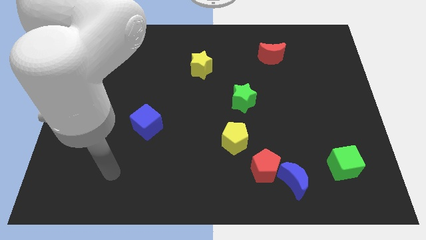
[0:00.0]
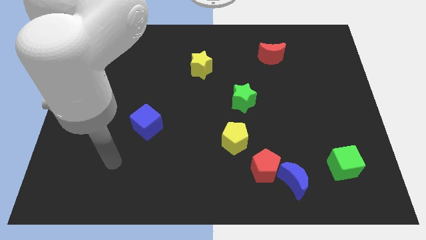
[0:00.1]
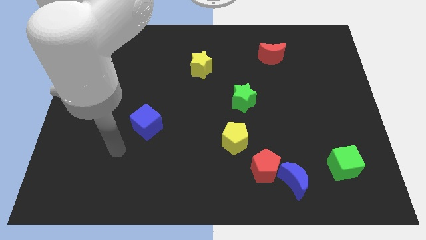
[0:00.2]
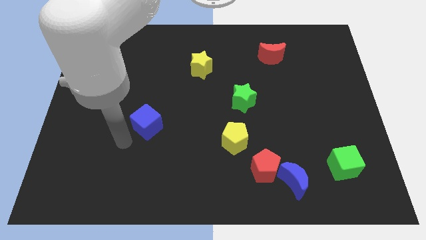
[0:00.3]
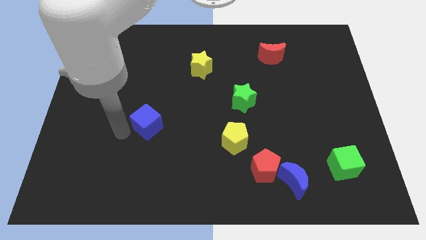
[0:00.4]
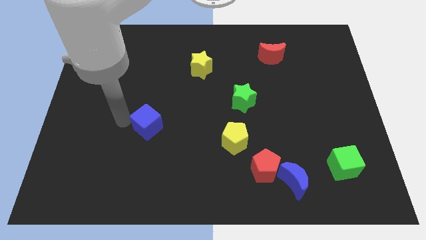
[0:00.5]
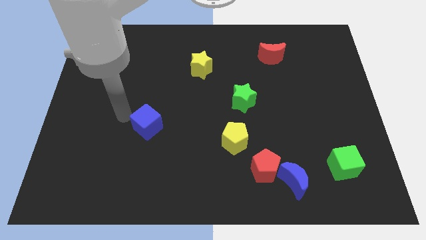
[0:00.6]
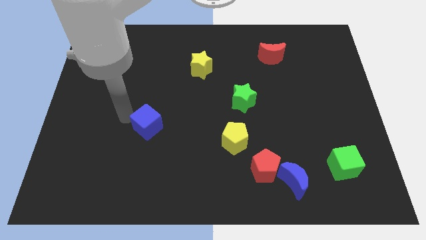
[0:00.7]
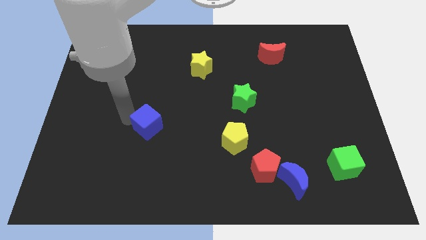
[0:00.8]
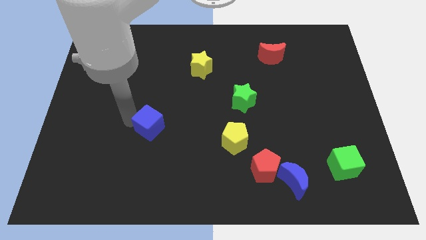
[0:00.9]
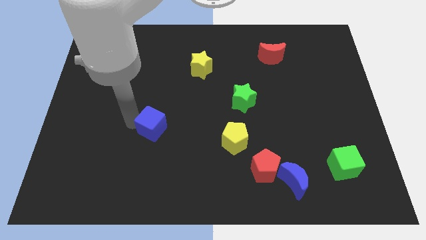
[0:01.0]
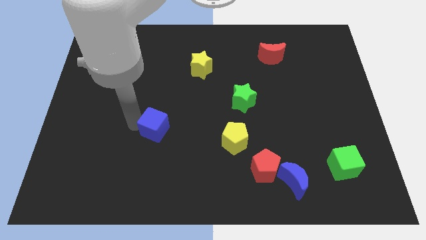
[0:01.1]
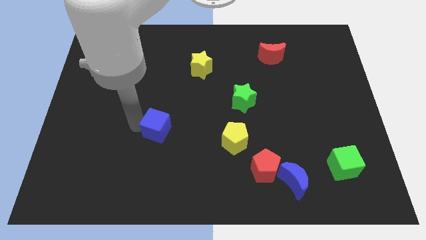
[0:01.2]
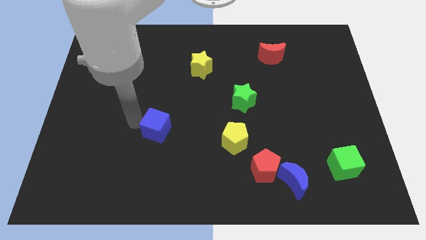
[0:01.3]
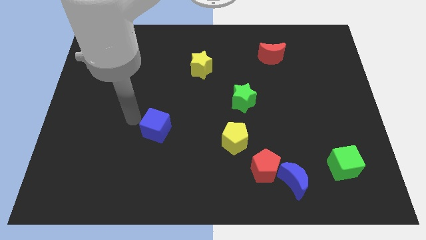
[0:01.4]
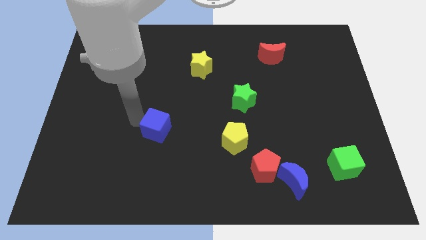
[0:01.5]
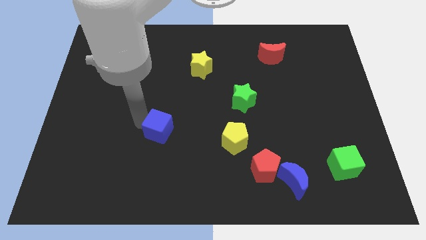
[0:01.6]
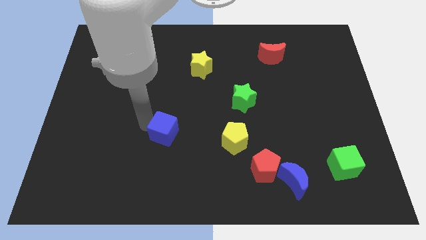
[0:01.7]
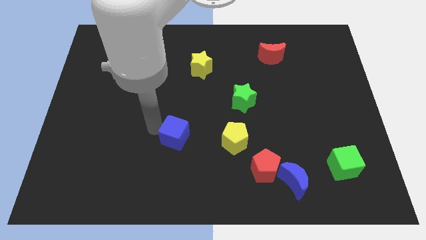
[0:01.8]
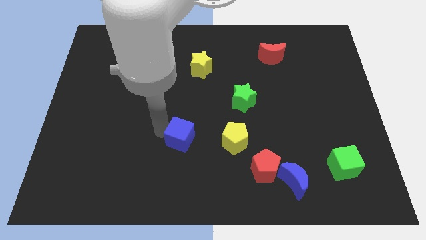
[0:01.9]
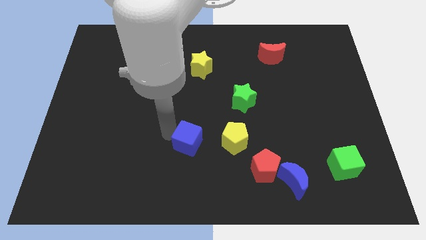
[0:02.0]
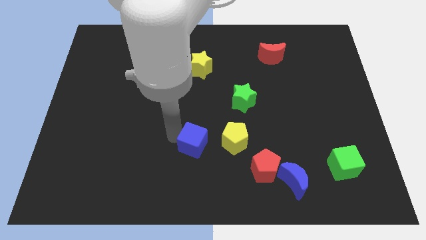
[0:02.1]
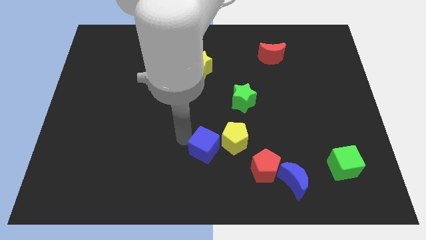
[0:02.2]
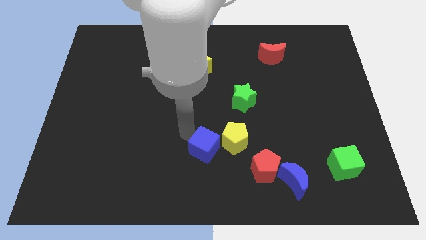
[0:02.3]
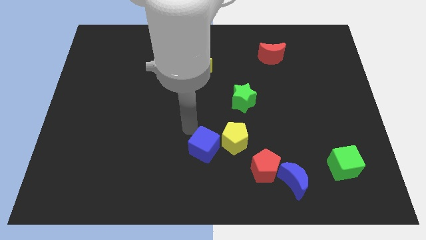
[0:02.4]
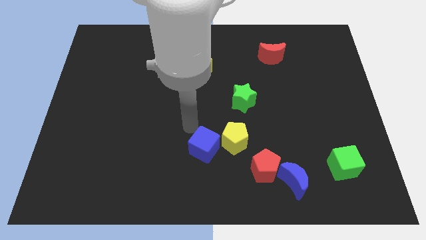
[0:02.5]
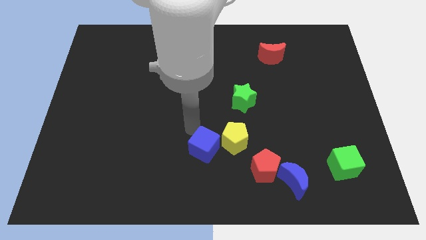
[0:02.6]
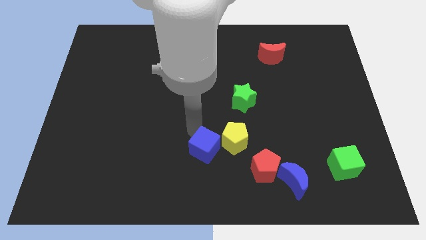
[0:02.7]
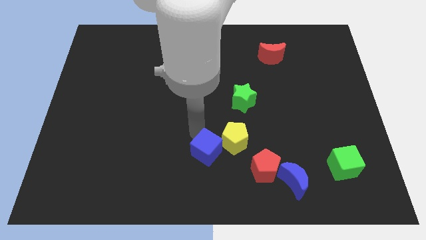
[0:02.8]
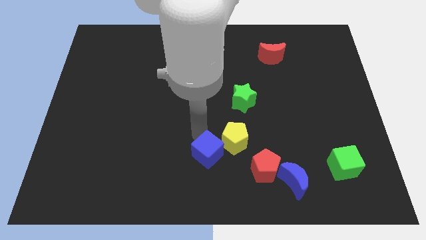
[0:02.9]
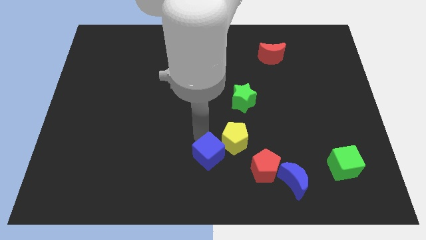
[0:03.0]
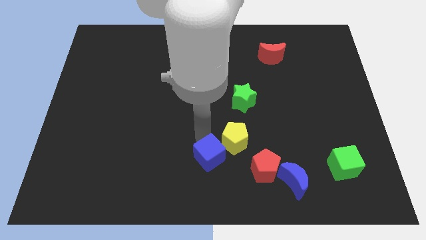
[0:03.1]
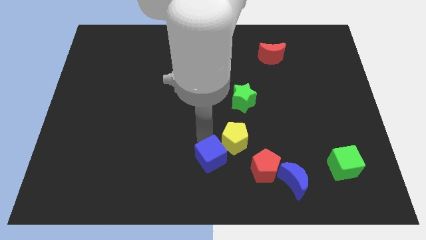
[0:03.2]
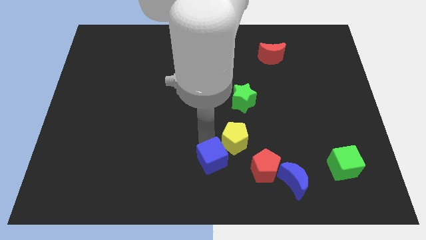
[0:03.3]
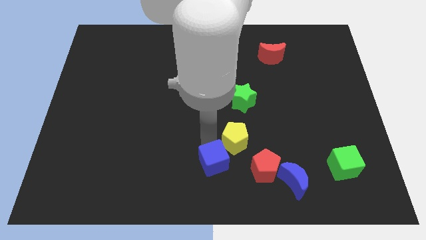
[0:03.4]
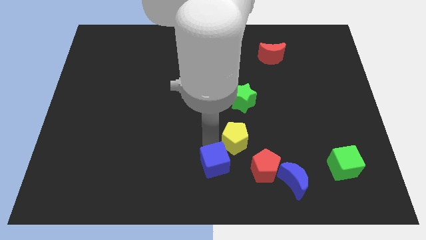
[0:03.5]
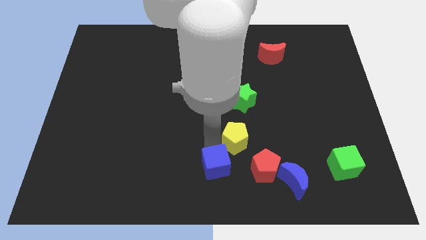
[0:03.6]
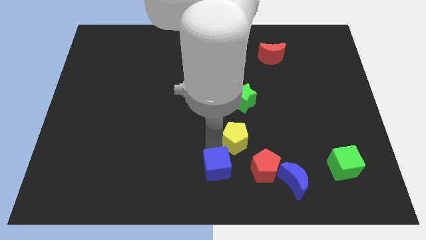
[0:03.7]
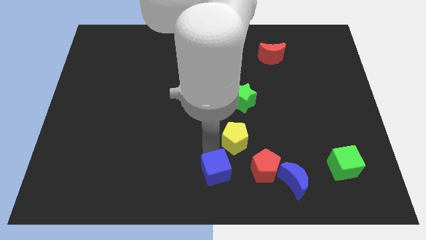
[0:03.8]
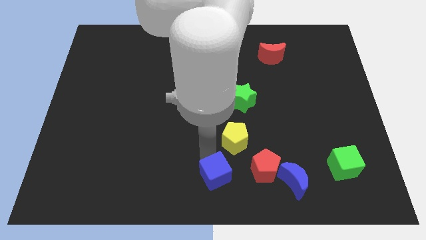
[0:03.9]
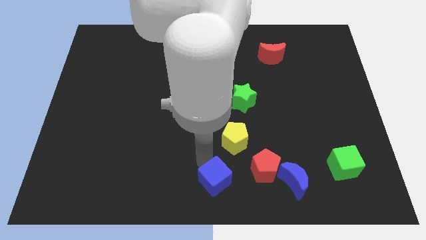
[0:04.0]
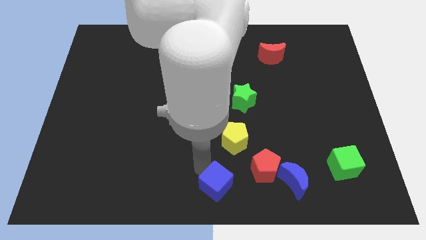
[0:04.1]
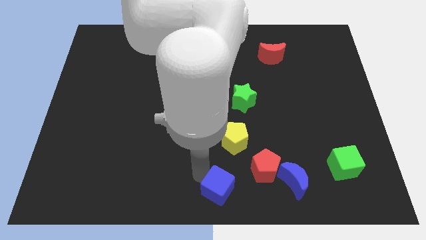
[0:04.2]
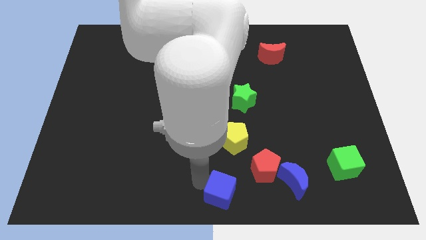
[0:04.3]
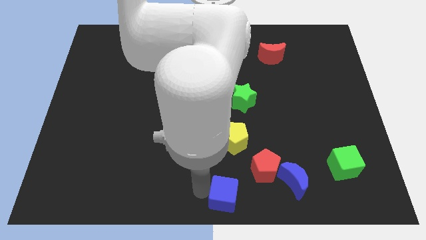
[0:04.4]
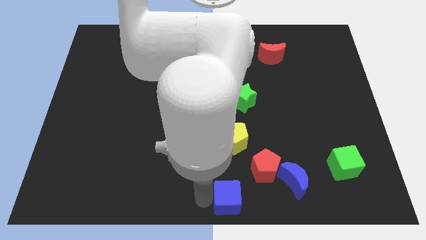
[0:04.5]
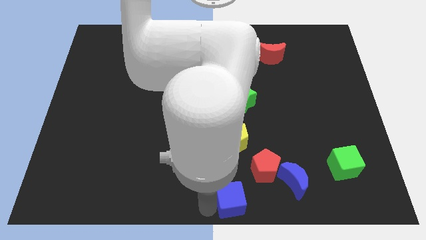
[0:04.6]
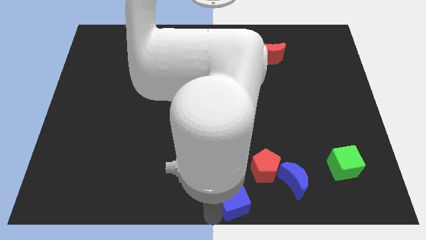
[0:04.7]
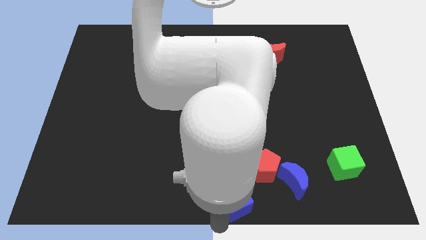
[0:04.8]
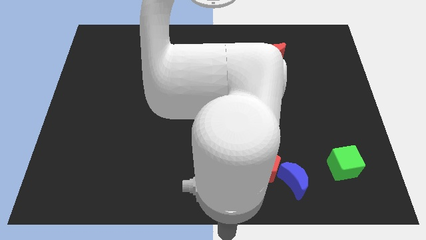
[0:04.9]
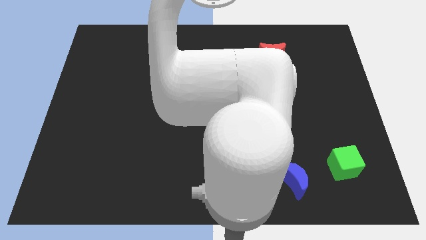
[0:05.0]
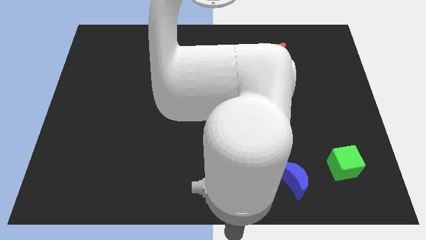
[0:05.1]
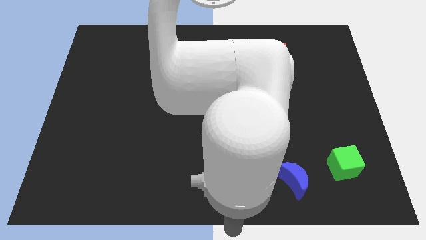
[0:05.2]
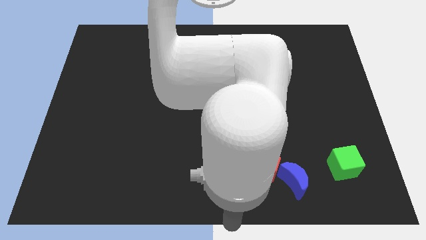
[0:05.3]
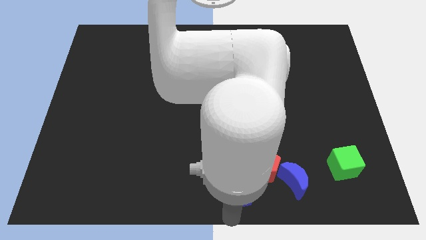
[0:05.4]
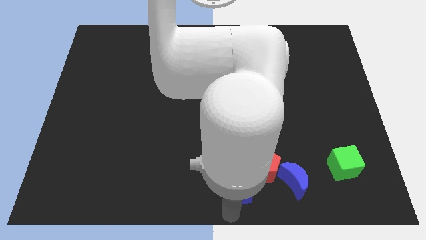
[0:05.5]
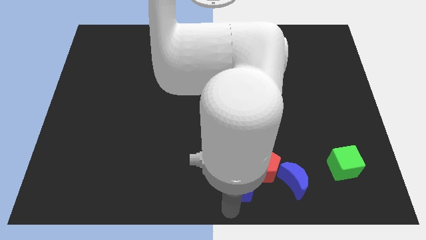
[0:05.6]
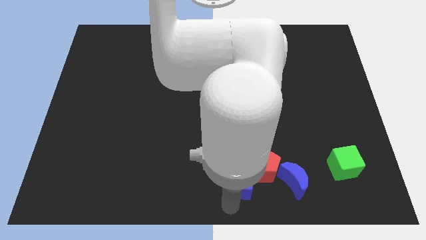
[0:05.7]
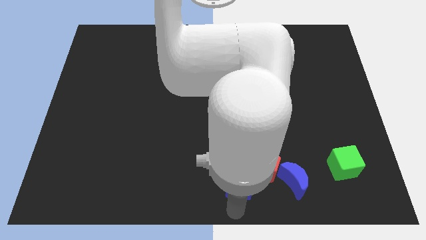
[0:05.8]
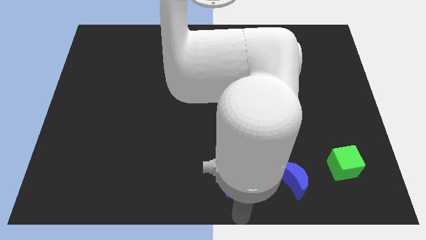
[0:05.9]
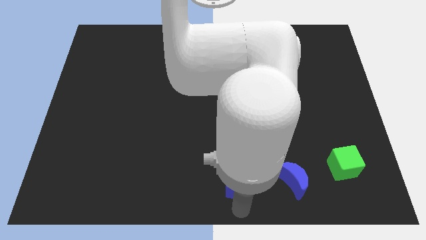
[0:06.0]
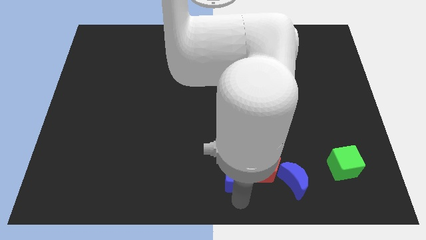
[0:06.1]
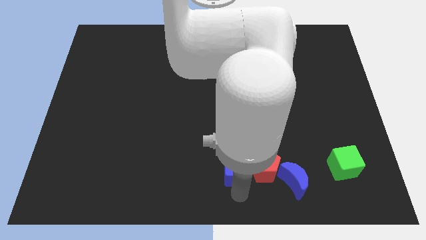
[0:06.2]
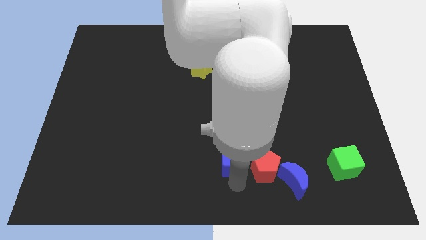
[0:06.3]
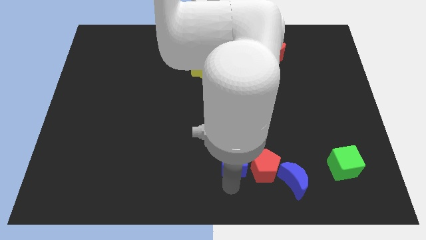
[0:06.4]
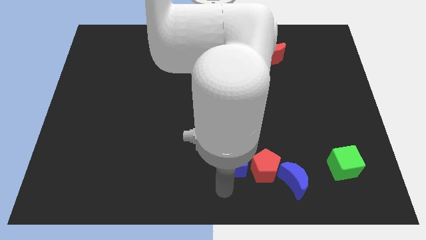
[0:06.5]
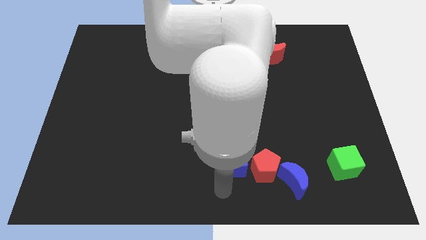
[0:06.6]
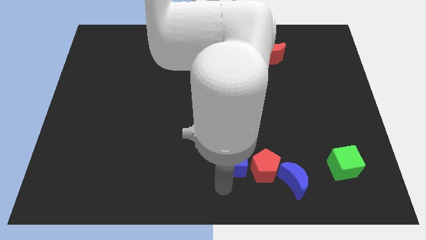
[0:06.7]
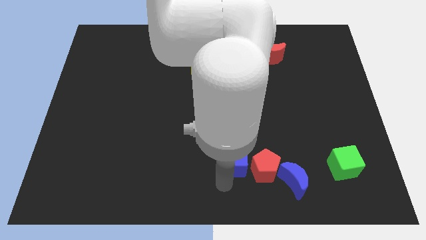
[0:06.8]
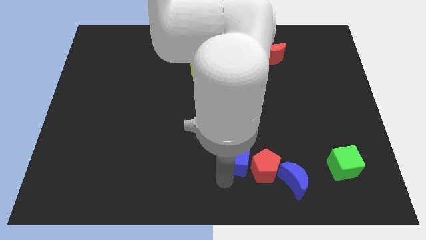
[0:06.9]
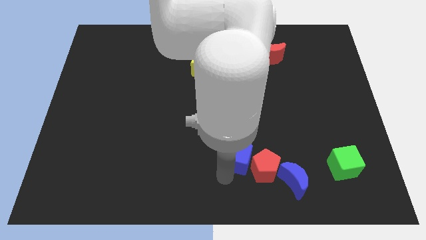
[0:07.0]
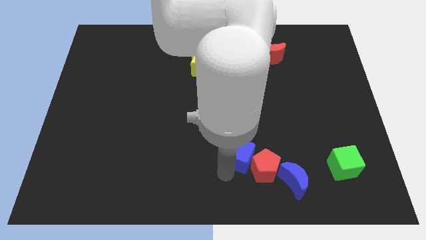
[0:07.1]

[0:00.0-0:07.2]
put the blue cube to the bottom side of the green star
